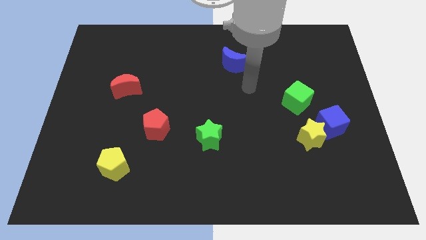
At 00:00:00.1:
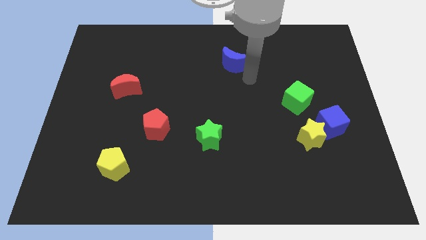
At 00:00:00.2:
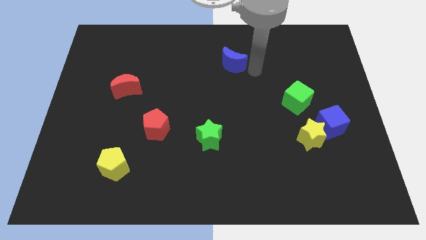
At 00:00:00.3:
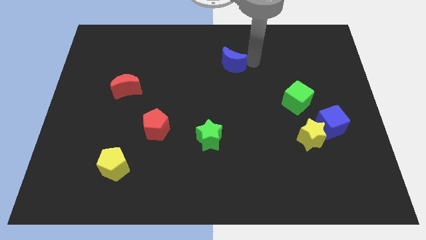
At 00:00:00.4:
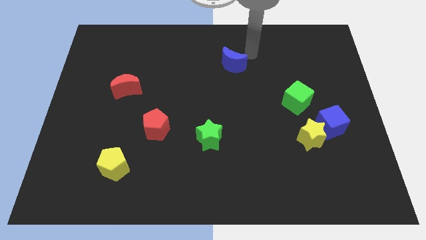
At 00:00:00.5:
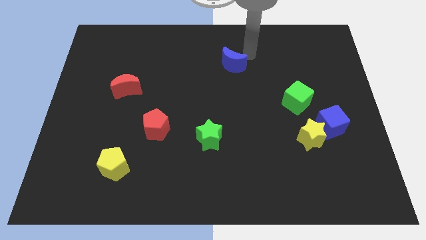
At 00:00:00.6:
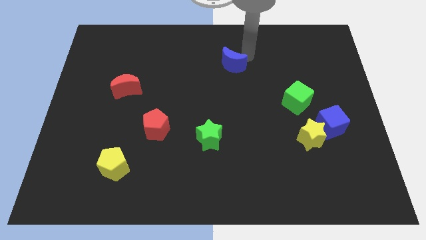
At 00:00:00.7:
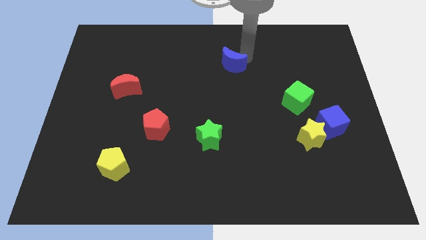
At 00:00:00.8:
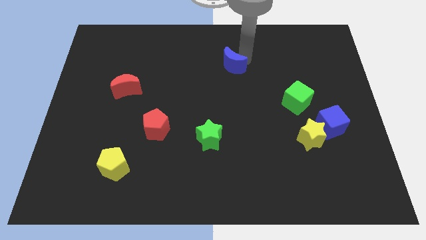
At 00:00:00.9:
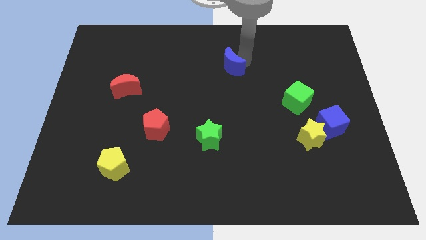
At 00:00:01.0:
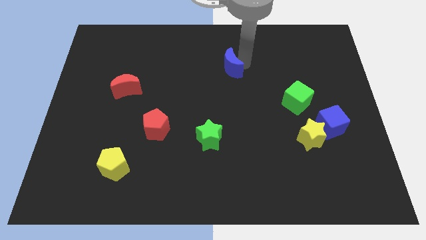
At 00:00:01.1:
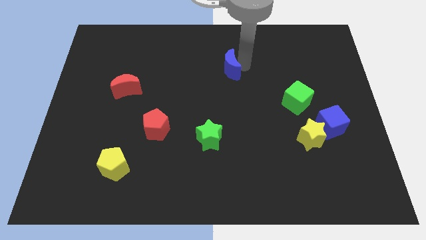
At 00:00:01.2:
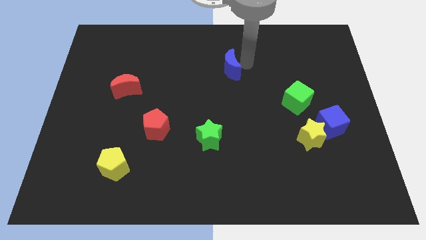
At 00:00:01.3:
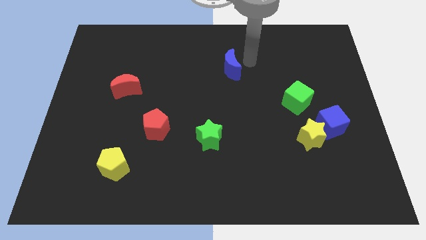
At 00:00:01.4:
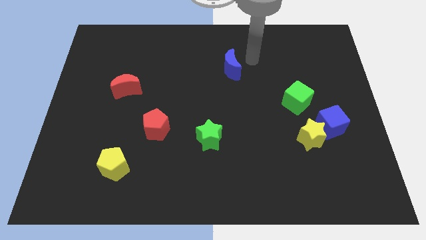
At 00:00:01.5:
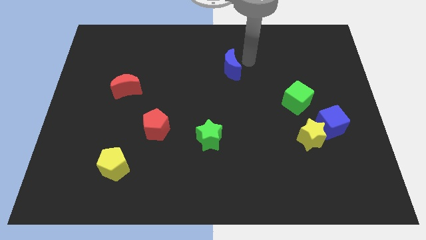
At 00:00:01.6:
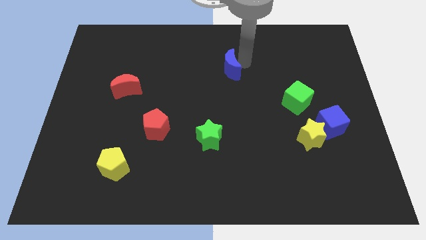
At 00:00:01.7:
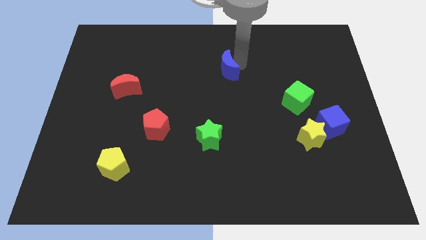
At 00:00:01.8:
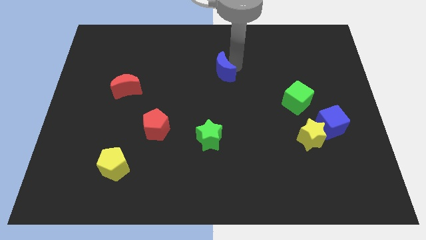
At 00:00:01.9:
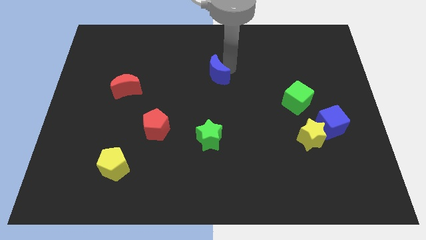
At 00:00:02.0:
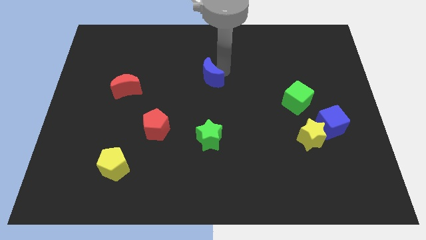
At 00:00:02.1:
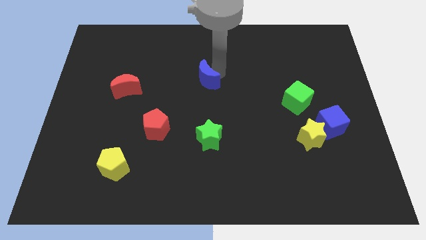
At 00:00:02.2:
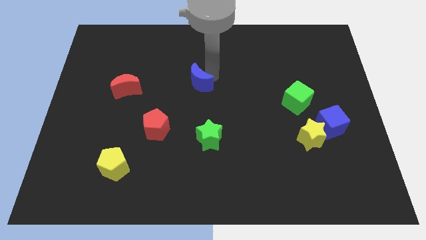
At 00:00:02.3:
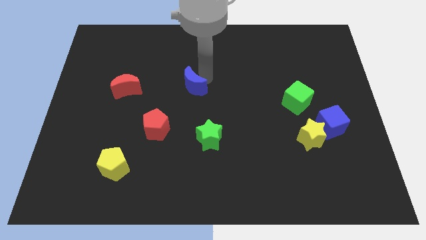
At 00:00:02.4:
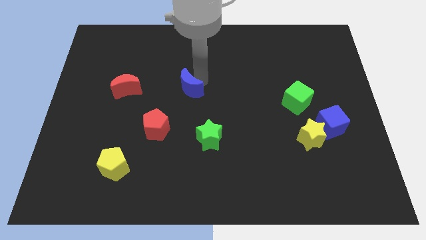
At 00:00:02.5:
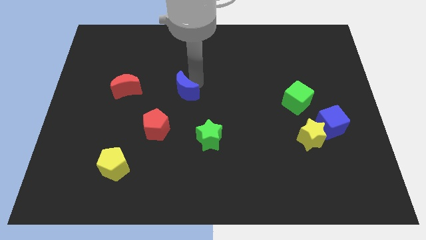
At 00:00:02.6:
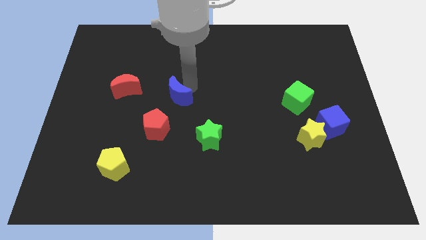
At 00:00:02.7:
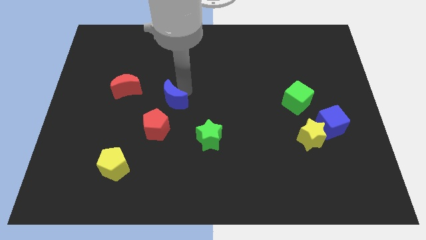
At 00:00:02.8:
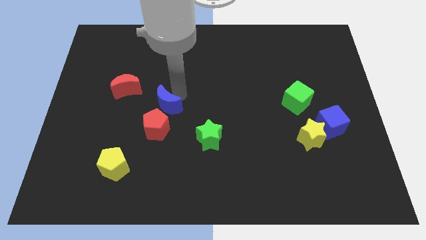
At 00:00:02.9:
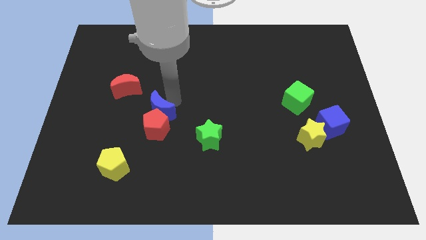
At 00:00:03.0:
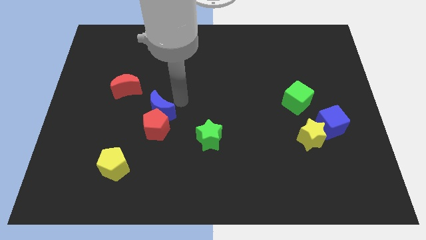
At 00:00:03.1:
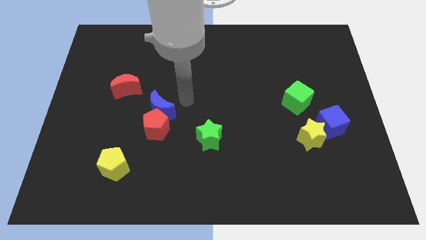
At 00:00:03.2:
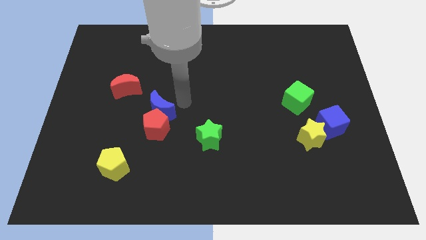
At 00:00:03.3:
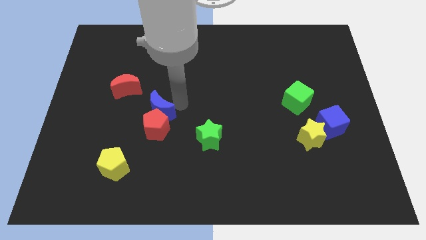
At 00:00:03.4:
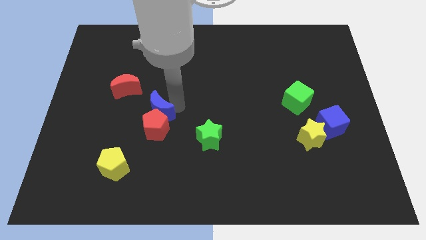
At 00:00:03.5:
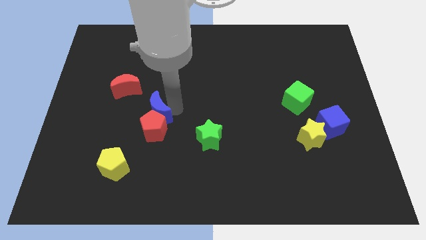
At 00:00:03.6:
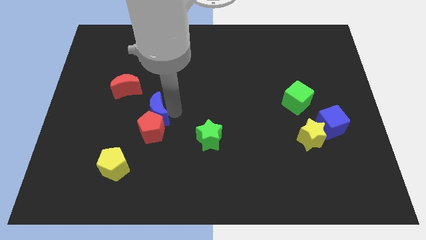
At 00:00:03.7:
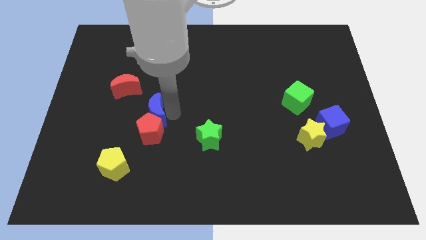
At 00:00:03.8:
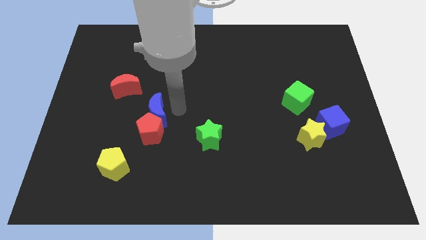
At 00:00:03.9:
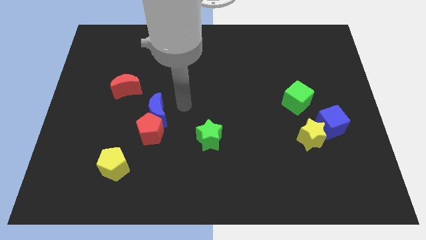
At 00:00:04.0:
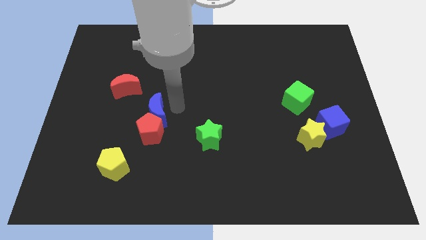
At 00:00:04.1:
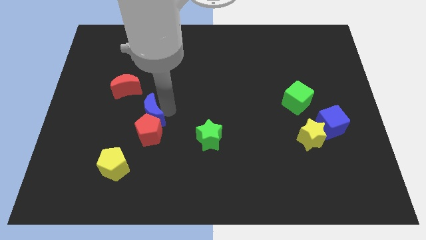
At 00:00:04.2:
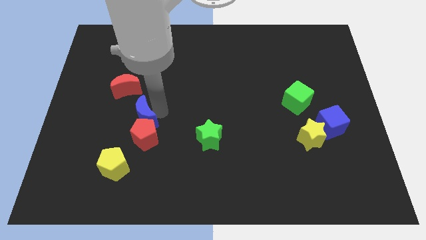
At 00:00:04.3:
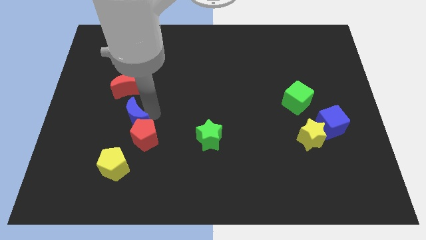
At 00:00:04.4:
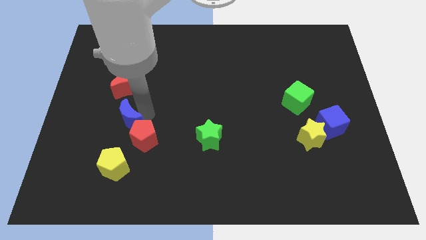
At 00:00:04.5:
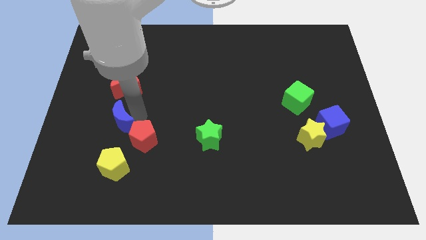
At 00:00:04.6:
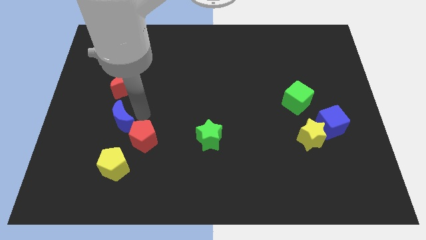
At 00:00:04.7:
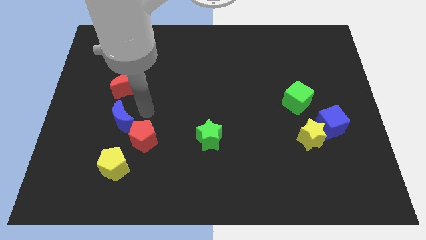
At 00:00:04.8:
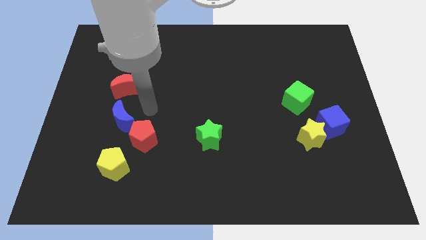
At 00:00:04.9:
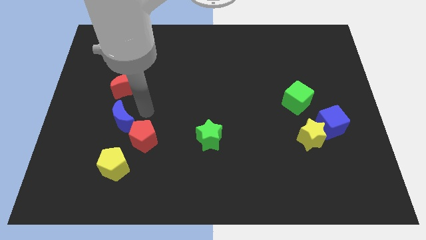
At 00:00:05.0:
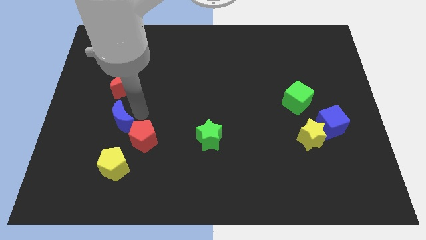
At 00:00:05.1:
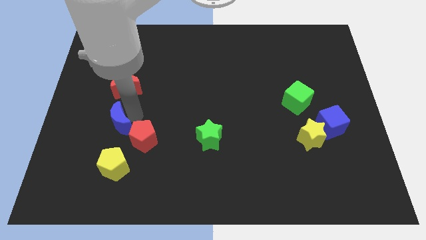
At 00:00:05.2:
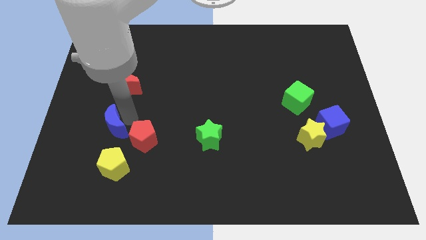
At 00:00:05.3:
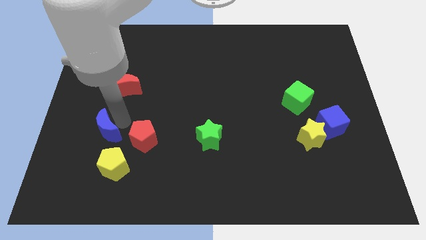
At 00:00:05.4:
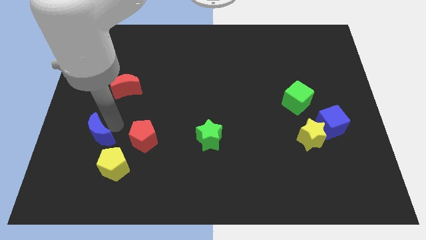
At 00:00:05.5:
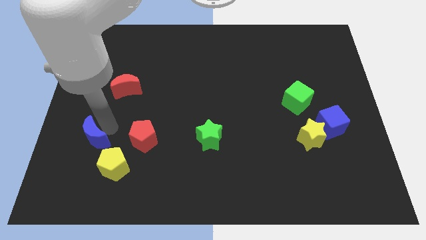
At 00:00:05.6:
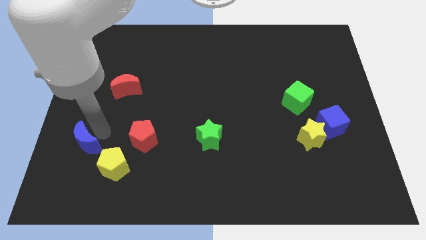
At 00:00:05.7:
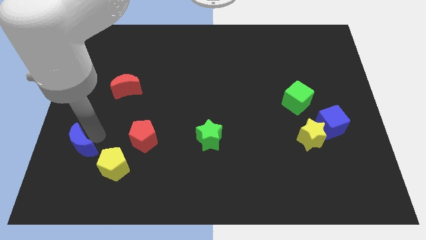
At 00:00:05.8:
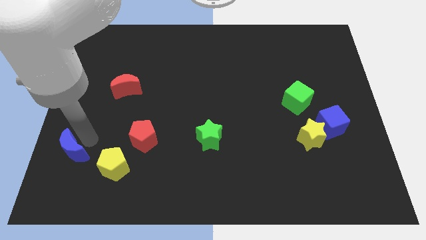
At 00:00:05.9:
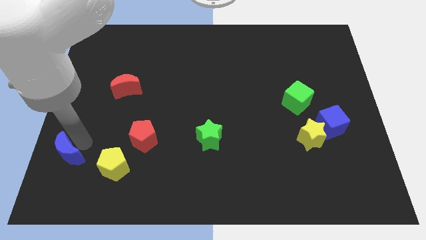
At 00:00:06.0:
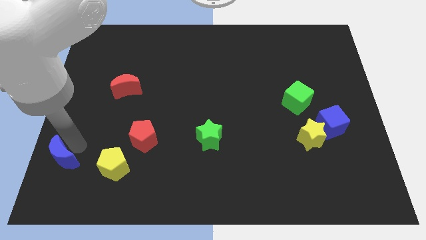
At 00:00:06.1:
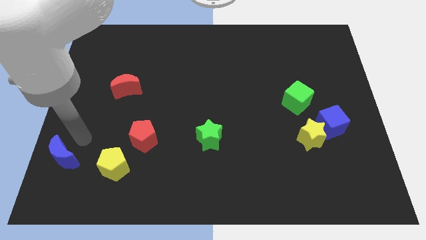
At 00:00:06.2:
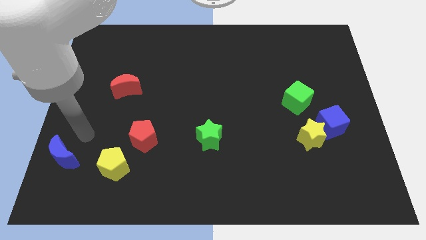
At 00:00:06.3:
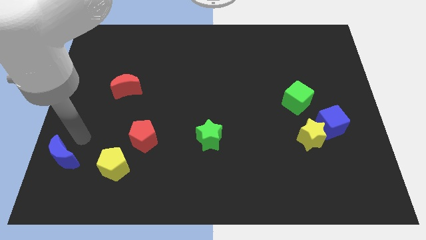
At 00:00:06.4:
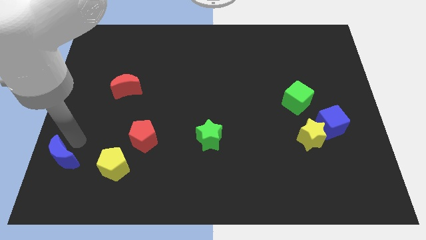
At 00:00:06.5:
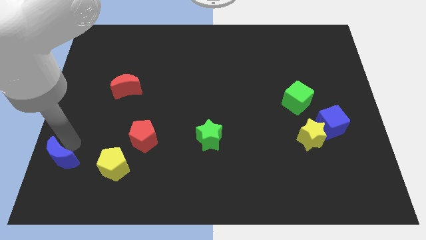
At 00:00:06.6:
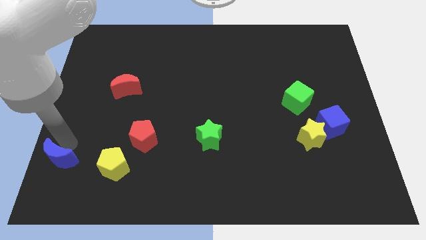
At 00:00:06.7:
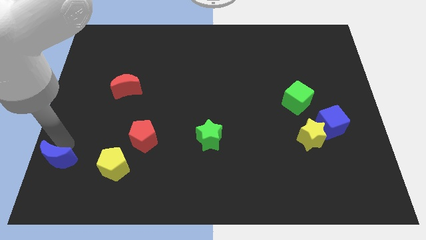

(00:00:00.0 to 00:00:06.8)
put the blue moon to the bottom left of the board

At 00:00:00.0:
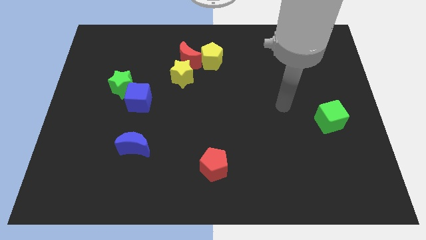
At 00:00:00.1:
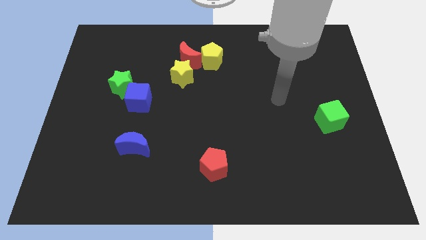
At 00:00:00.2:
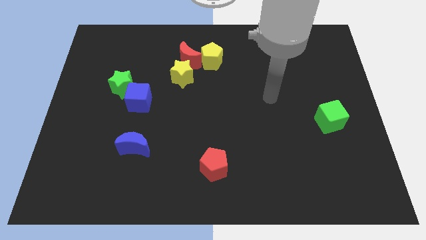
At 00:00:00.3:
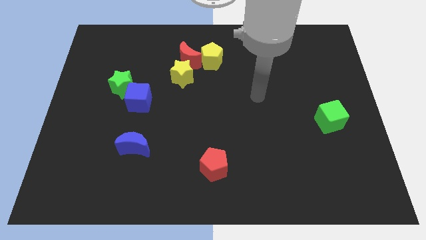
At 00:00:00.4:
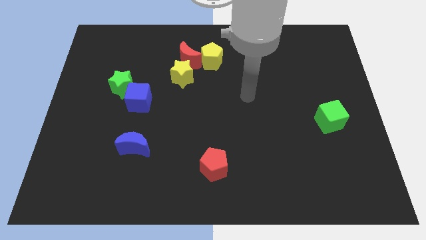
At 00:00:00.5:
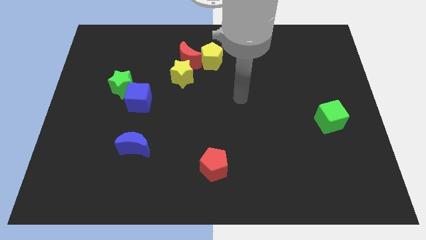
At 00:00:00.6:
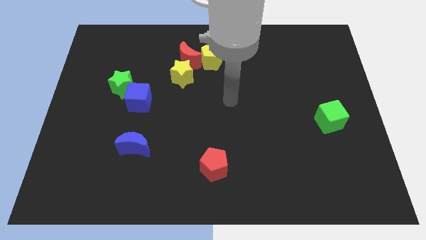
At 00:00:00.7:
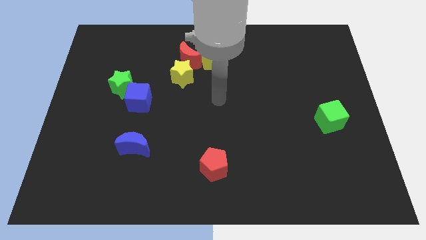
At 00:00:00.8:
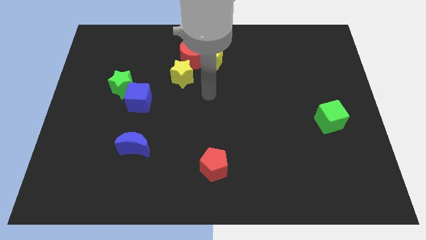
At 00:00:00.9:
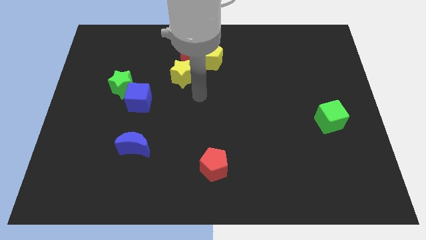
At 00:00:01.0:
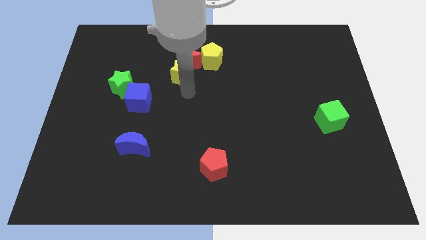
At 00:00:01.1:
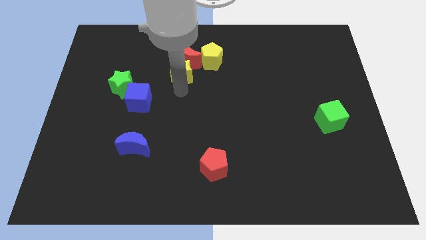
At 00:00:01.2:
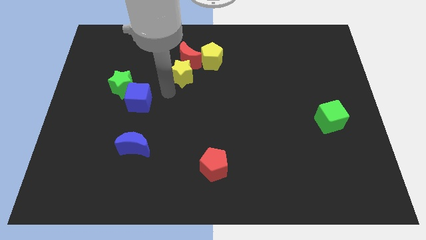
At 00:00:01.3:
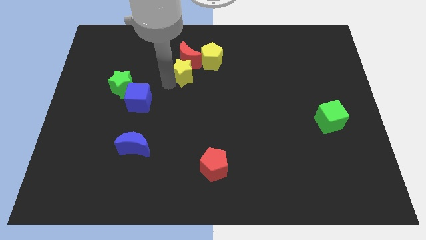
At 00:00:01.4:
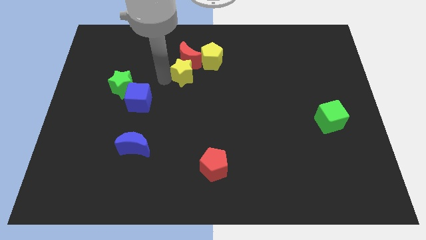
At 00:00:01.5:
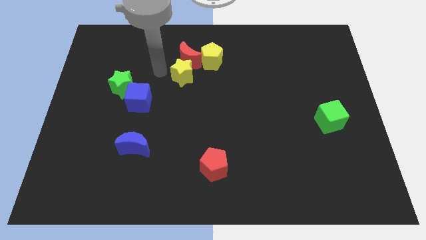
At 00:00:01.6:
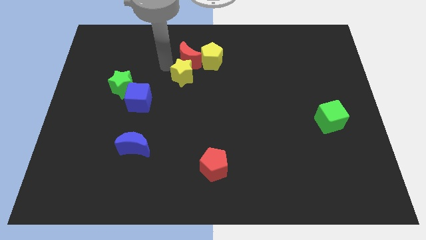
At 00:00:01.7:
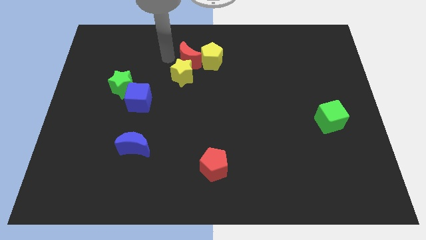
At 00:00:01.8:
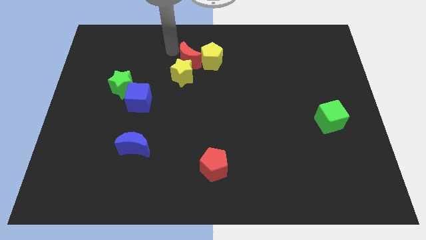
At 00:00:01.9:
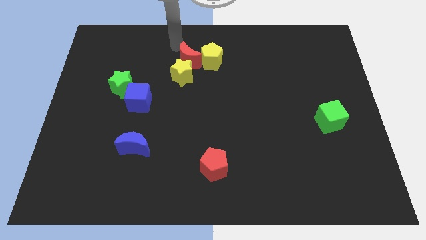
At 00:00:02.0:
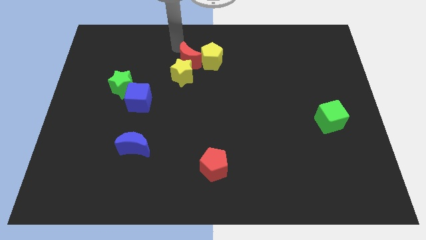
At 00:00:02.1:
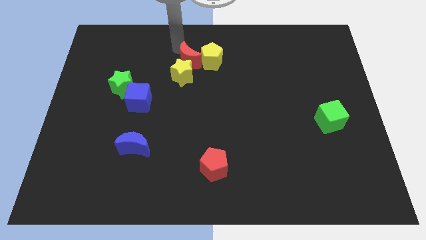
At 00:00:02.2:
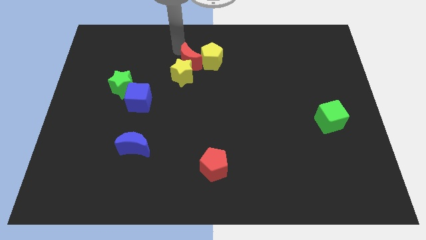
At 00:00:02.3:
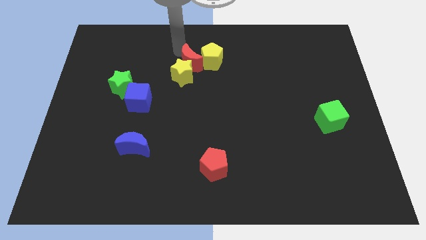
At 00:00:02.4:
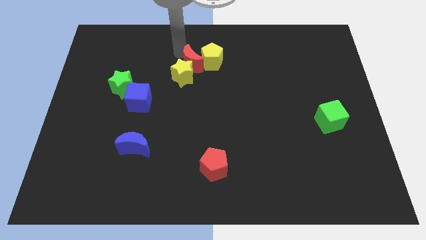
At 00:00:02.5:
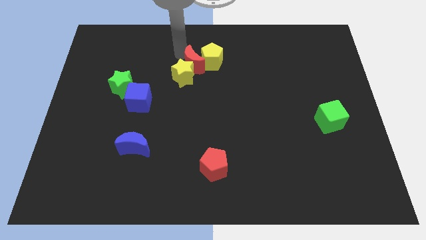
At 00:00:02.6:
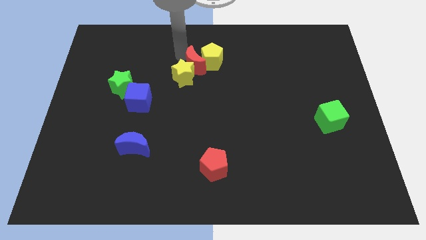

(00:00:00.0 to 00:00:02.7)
put the red moon to the middle
